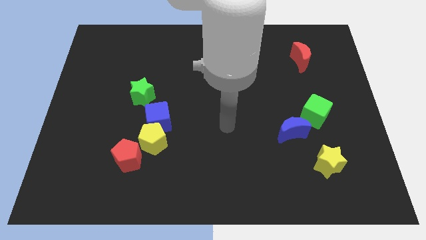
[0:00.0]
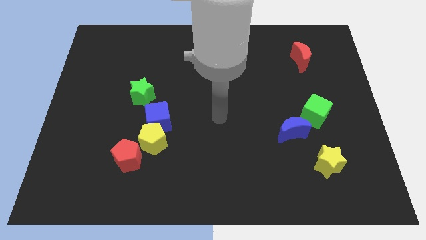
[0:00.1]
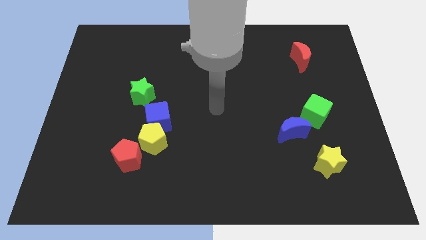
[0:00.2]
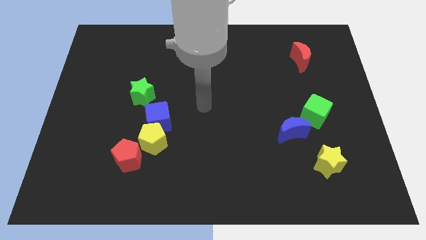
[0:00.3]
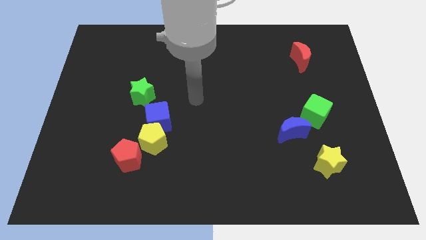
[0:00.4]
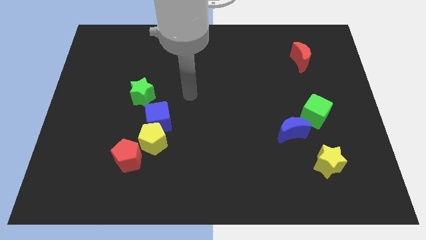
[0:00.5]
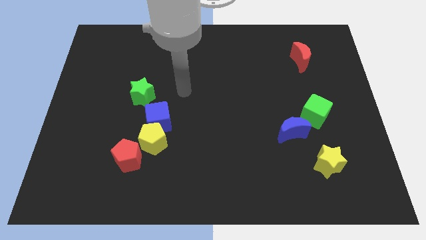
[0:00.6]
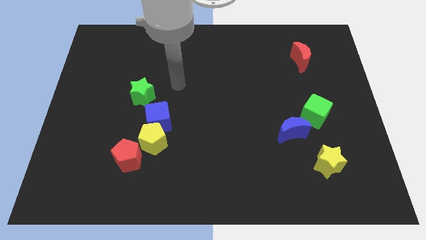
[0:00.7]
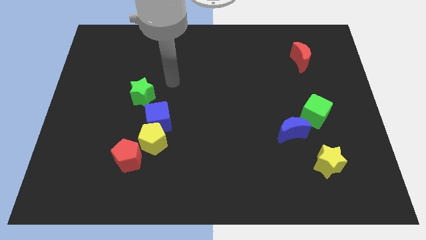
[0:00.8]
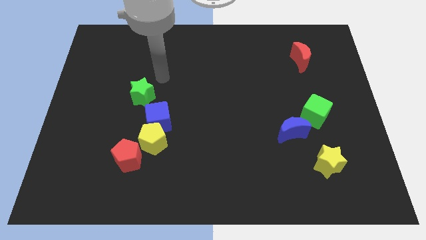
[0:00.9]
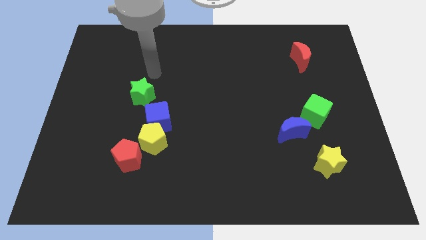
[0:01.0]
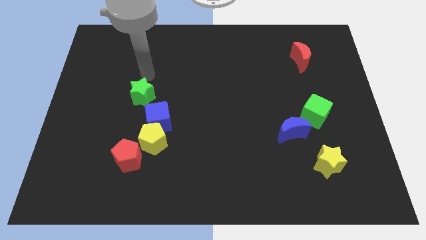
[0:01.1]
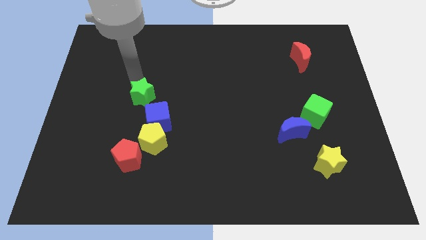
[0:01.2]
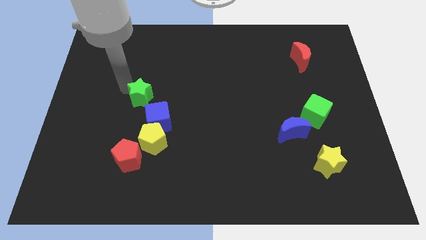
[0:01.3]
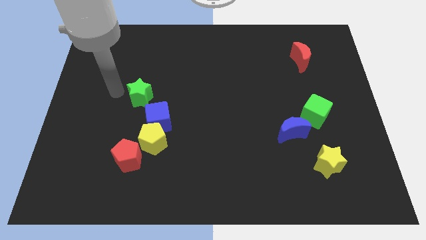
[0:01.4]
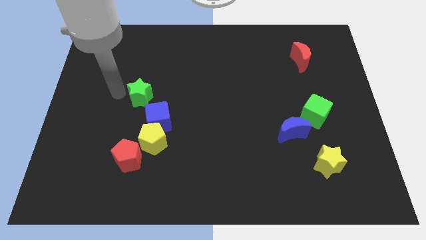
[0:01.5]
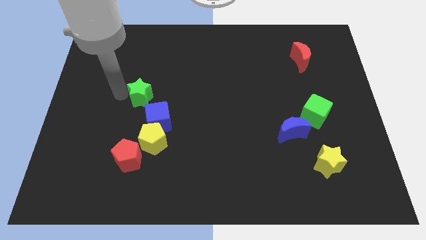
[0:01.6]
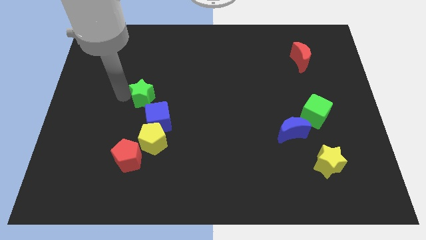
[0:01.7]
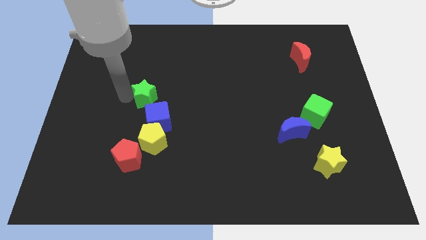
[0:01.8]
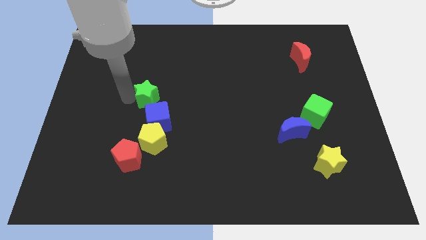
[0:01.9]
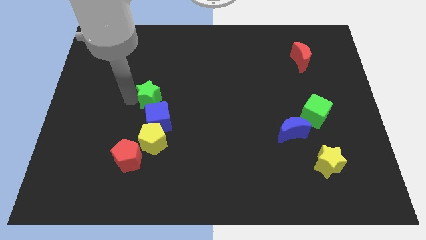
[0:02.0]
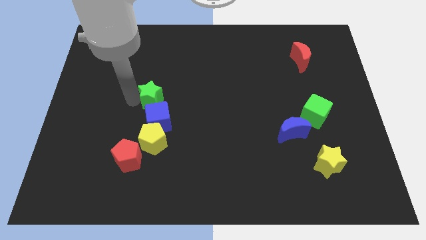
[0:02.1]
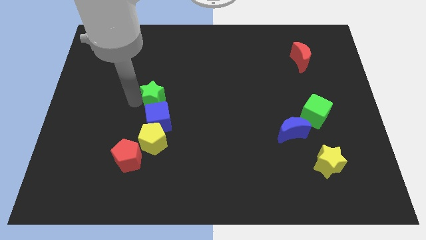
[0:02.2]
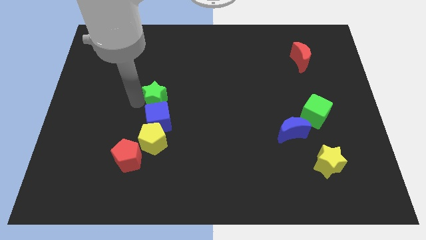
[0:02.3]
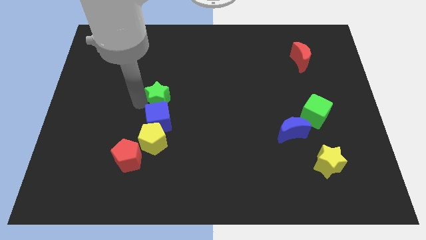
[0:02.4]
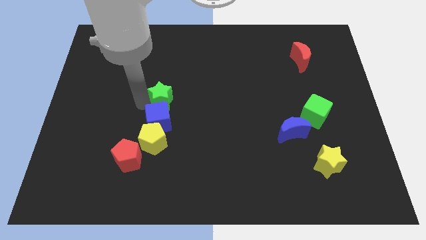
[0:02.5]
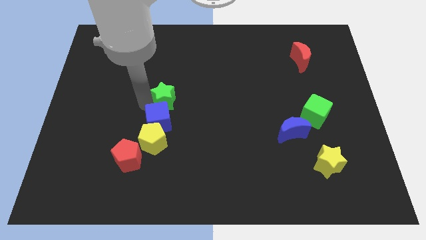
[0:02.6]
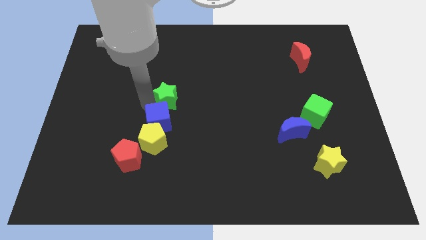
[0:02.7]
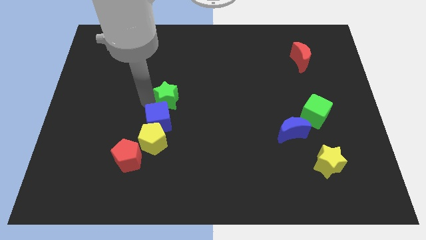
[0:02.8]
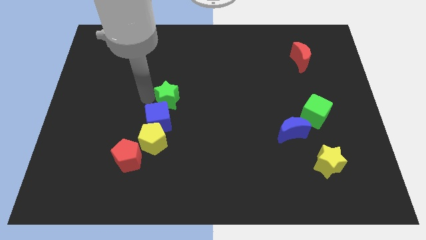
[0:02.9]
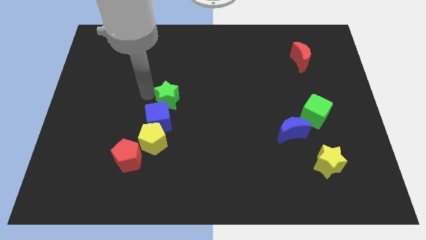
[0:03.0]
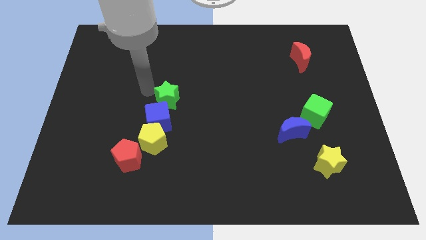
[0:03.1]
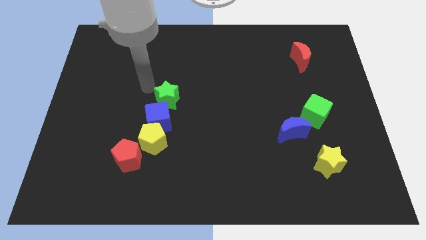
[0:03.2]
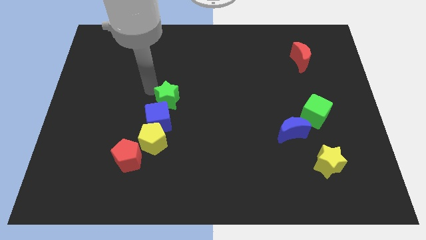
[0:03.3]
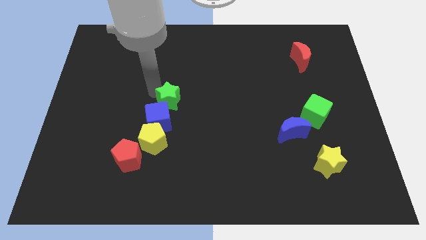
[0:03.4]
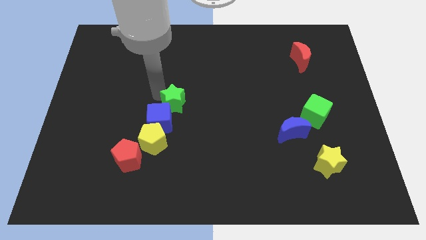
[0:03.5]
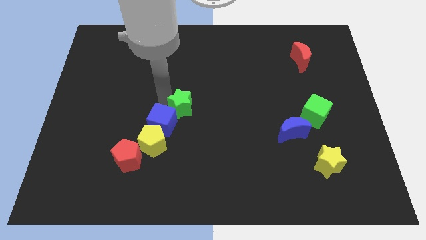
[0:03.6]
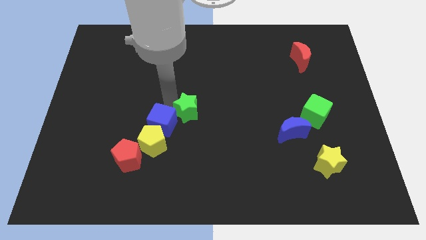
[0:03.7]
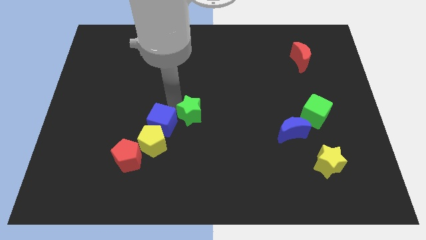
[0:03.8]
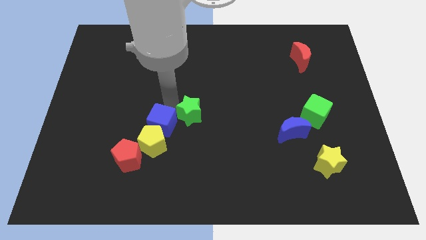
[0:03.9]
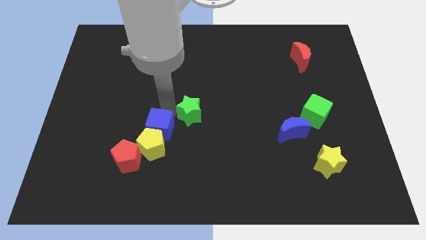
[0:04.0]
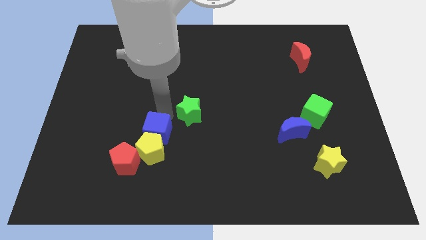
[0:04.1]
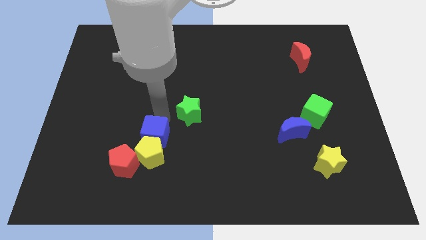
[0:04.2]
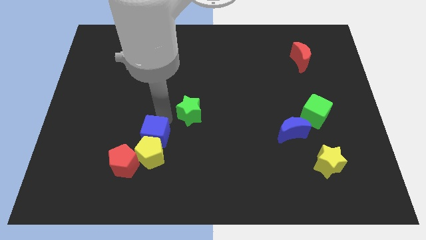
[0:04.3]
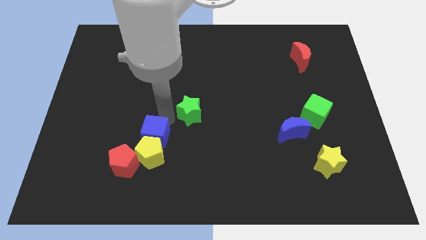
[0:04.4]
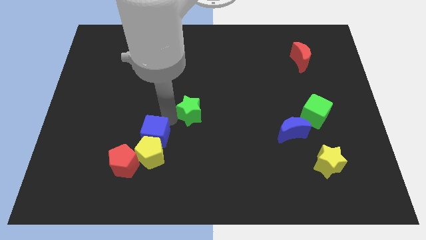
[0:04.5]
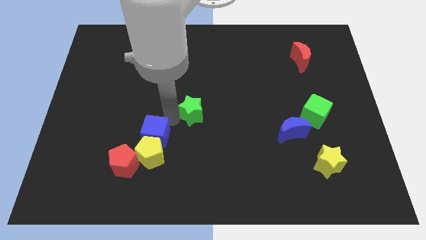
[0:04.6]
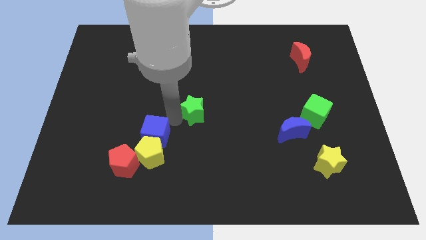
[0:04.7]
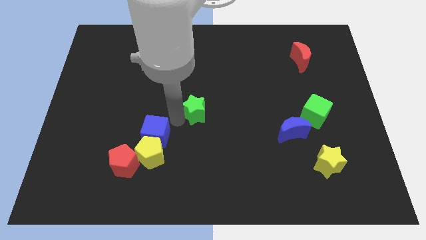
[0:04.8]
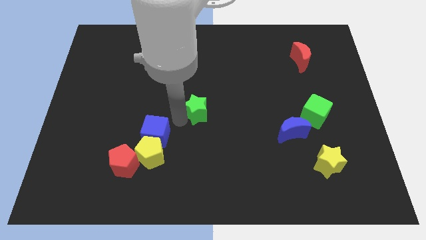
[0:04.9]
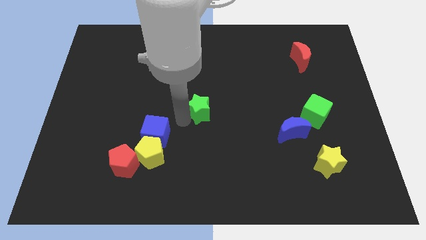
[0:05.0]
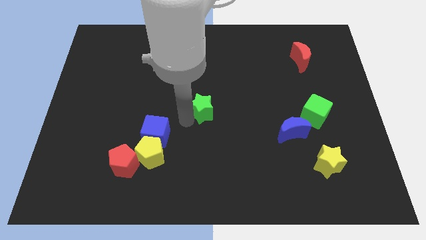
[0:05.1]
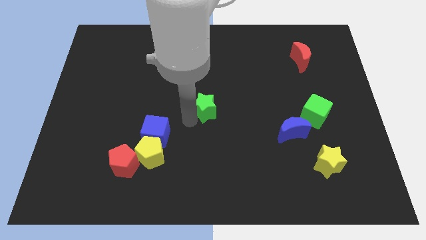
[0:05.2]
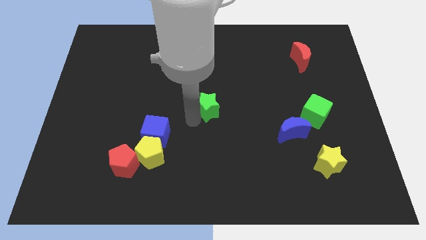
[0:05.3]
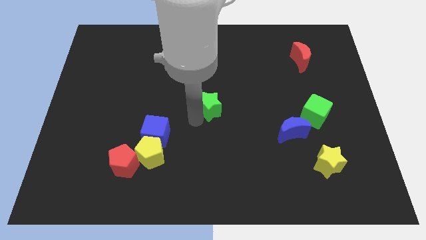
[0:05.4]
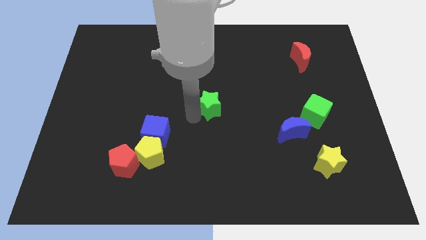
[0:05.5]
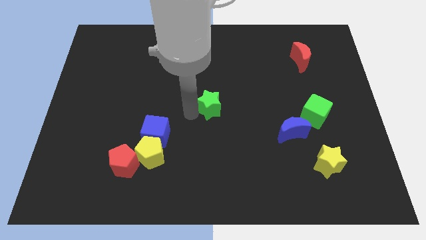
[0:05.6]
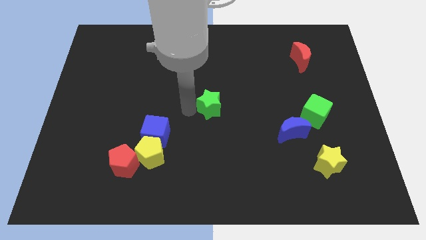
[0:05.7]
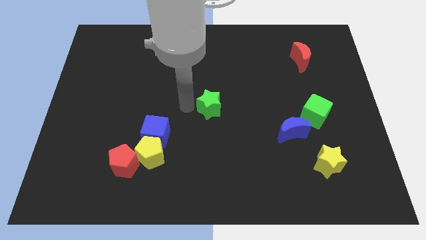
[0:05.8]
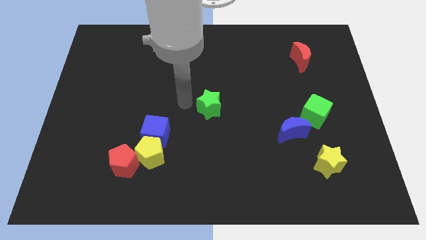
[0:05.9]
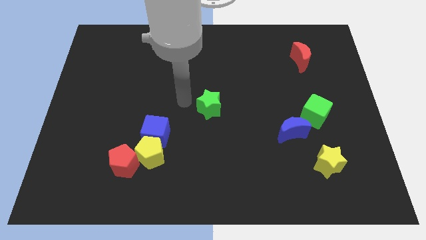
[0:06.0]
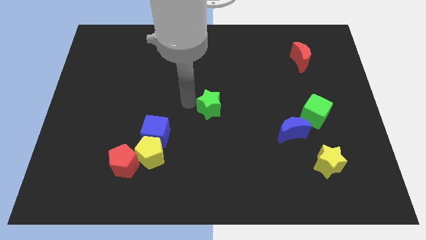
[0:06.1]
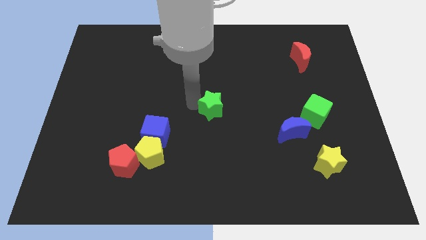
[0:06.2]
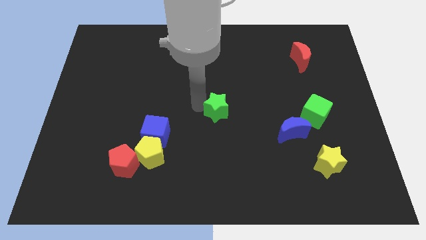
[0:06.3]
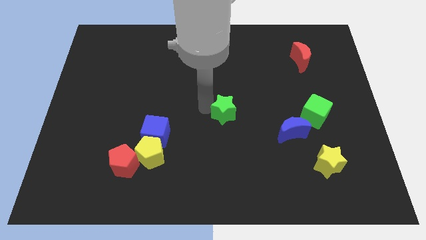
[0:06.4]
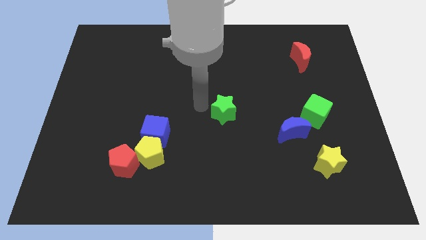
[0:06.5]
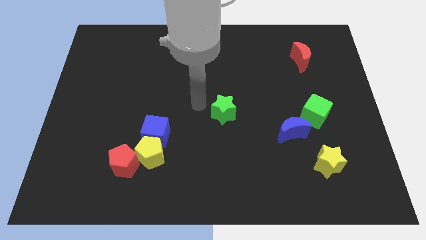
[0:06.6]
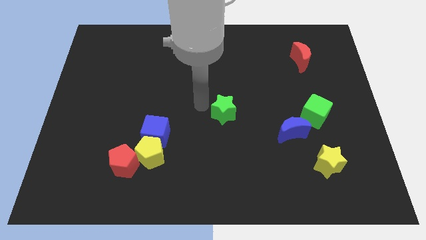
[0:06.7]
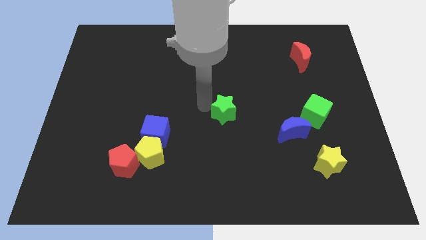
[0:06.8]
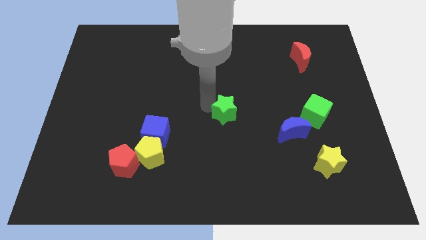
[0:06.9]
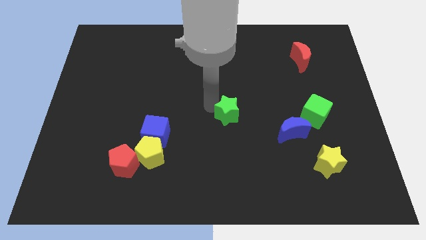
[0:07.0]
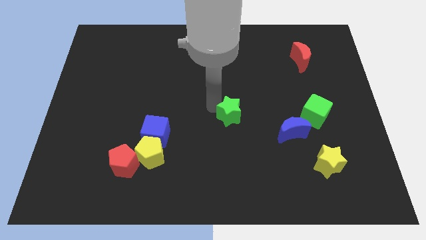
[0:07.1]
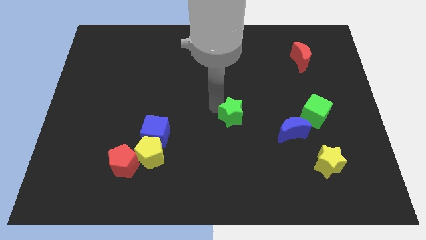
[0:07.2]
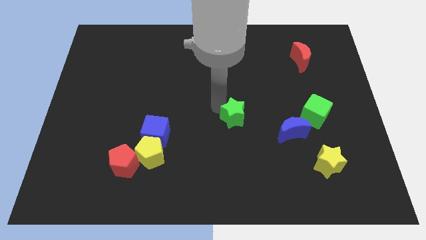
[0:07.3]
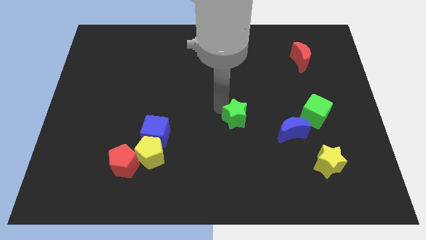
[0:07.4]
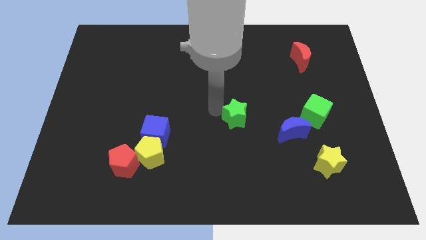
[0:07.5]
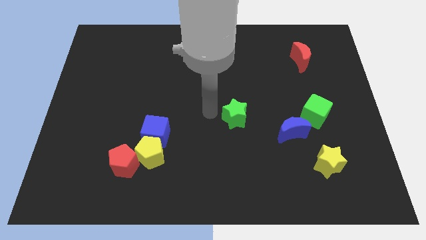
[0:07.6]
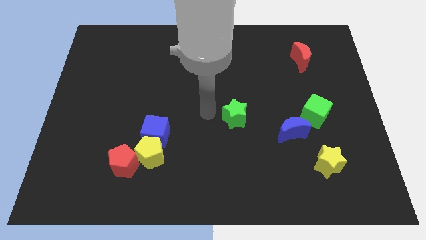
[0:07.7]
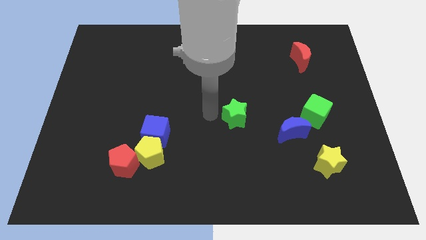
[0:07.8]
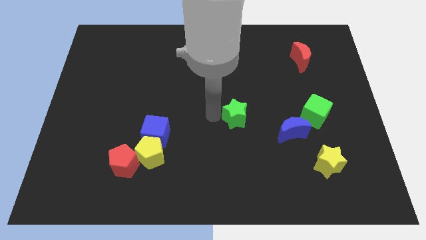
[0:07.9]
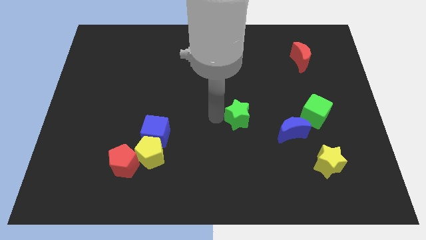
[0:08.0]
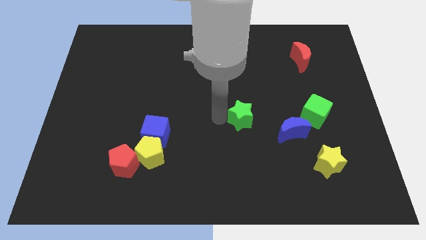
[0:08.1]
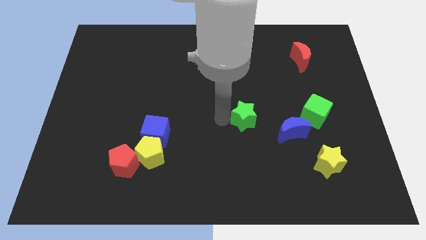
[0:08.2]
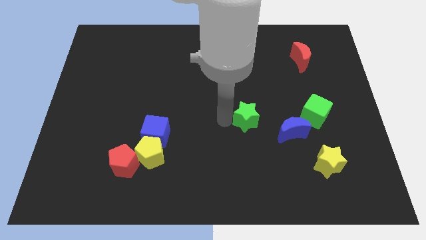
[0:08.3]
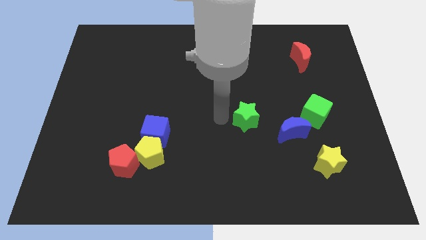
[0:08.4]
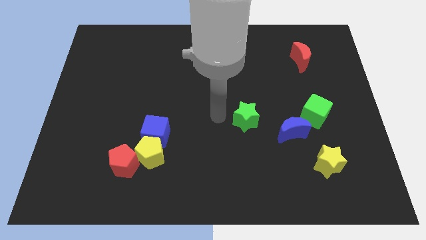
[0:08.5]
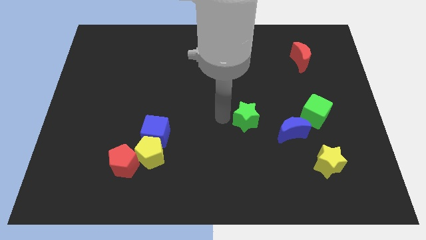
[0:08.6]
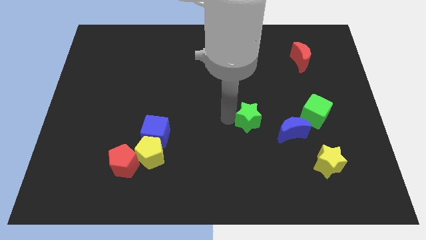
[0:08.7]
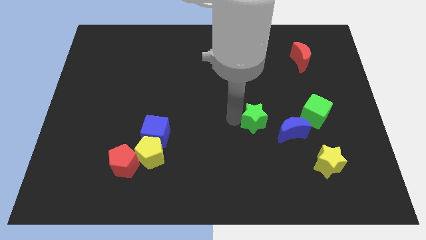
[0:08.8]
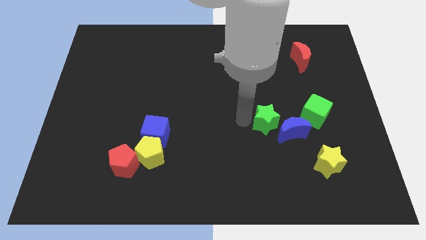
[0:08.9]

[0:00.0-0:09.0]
move the green star to the blue moon
